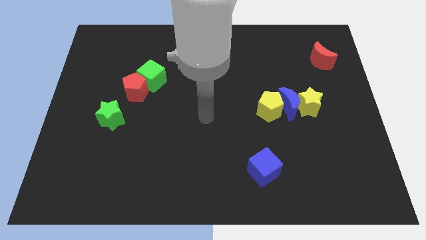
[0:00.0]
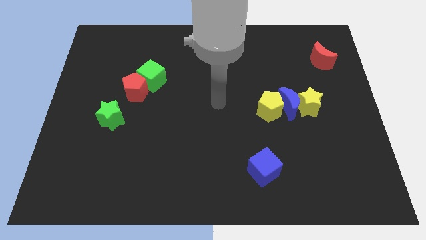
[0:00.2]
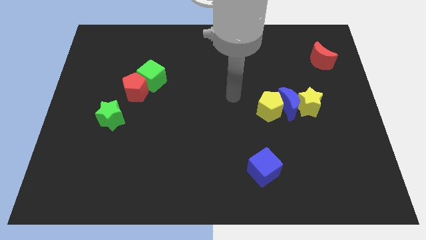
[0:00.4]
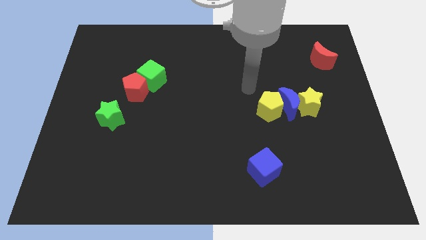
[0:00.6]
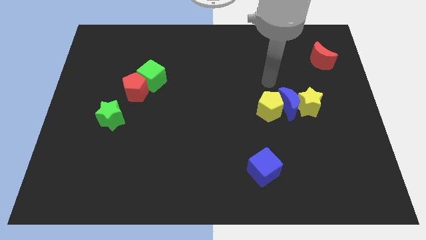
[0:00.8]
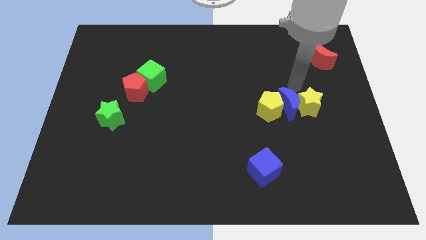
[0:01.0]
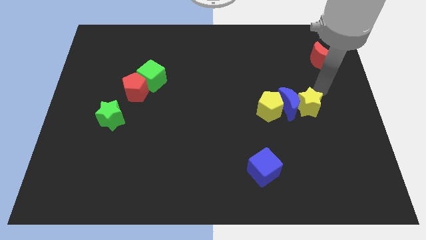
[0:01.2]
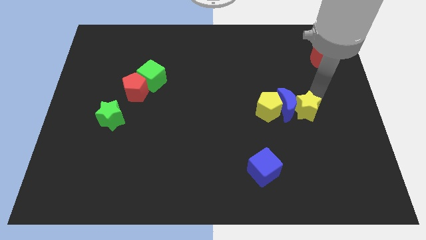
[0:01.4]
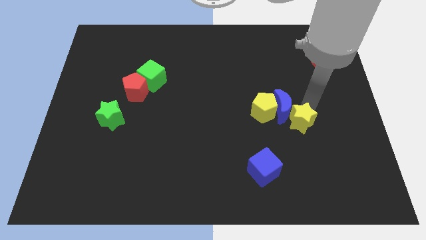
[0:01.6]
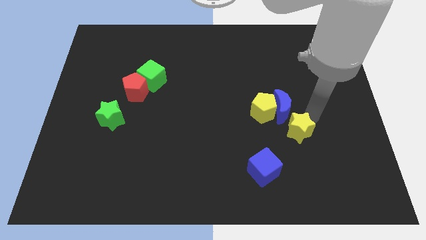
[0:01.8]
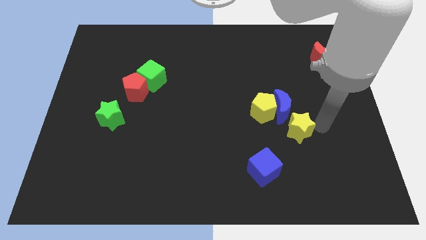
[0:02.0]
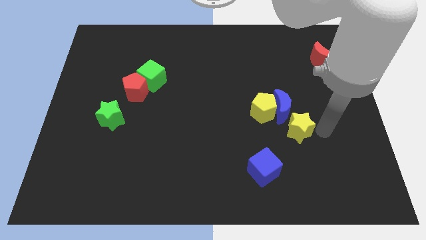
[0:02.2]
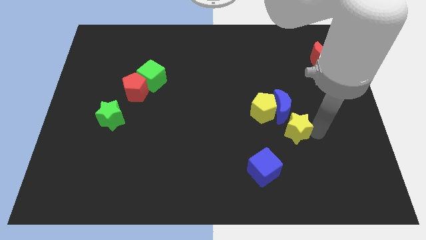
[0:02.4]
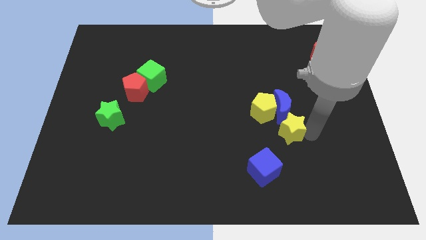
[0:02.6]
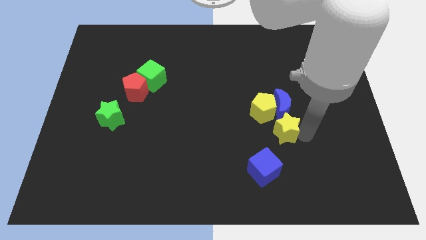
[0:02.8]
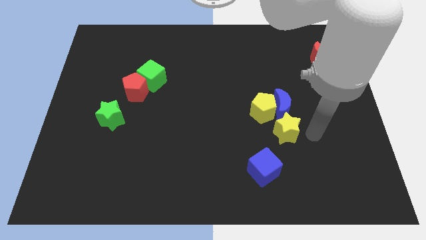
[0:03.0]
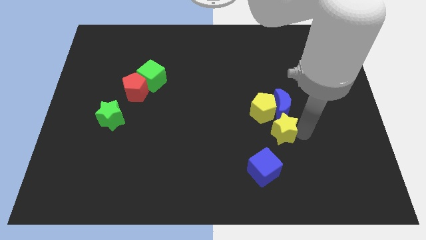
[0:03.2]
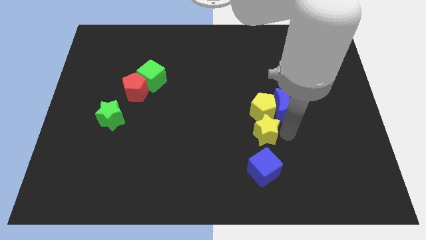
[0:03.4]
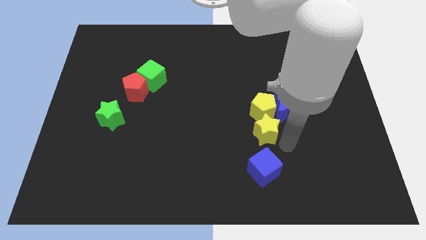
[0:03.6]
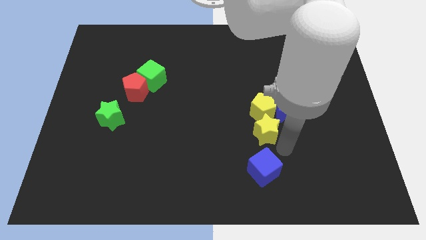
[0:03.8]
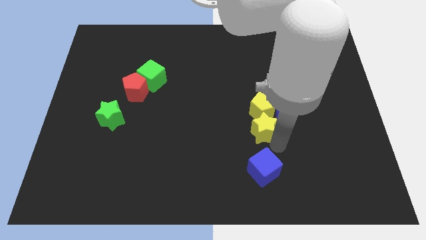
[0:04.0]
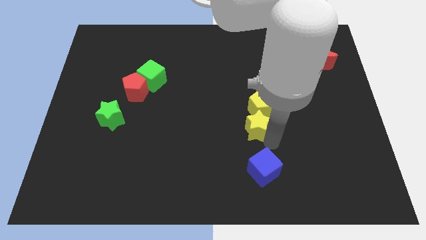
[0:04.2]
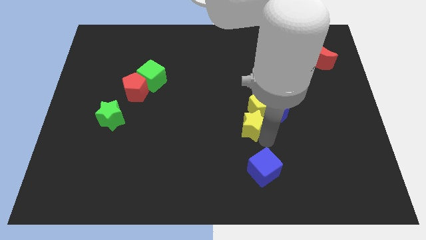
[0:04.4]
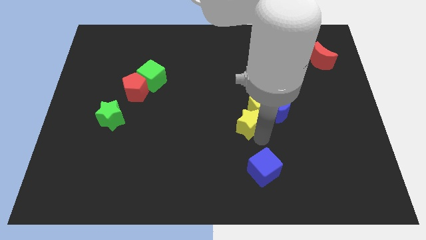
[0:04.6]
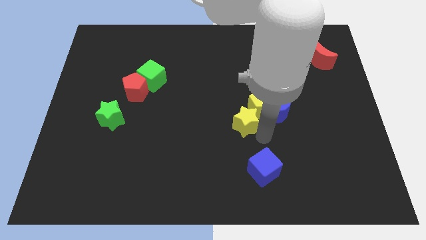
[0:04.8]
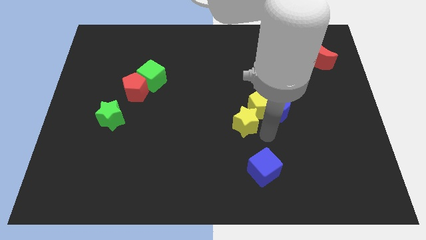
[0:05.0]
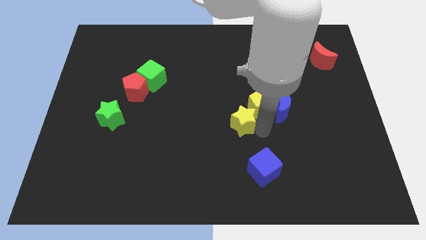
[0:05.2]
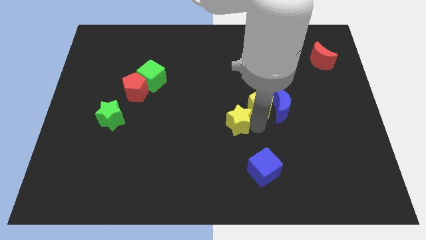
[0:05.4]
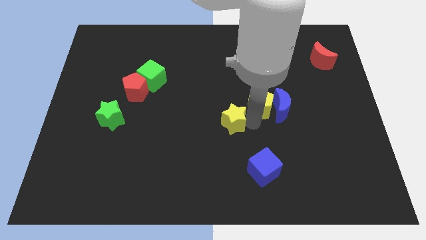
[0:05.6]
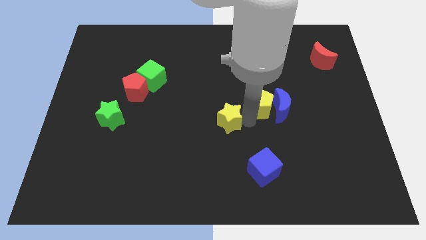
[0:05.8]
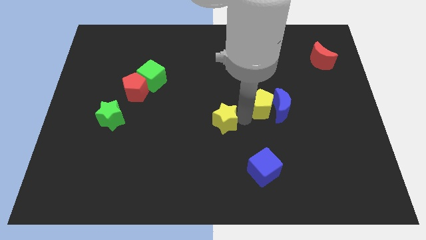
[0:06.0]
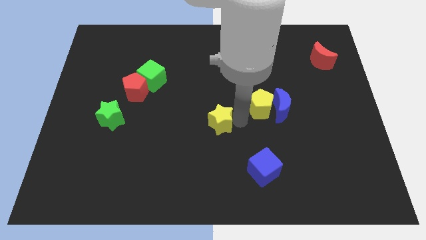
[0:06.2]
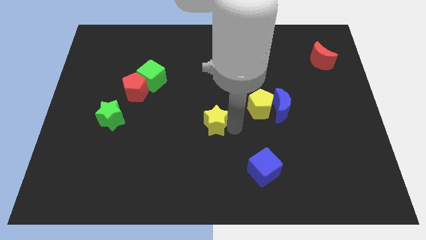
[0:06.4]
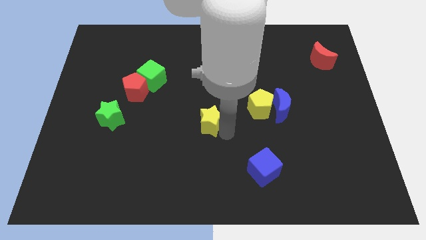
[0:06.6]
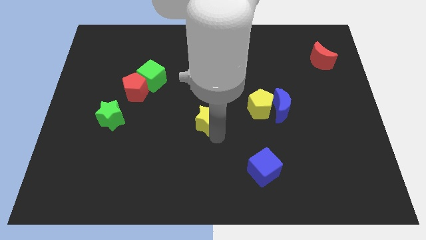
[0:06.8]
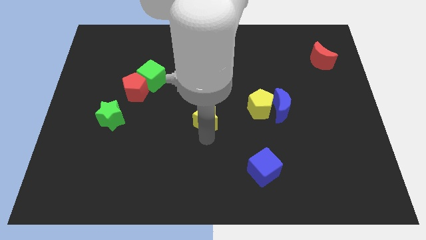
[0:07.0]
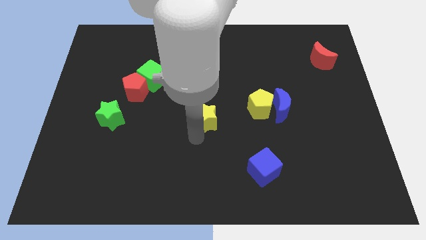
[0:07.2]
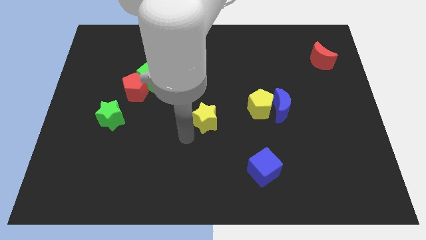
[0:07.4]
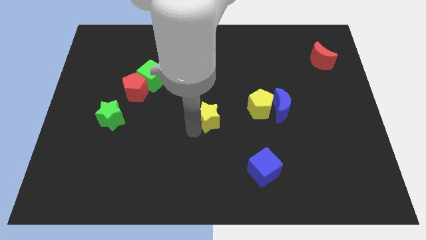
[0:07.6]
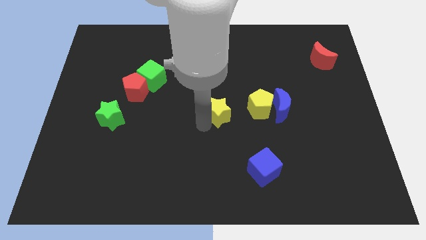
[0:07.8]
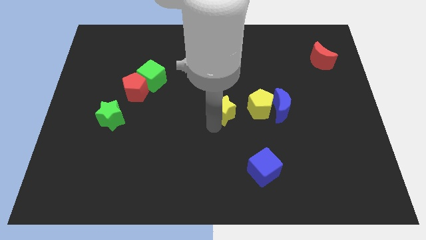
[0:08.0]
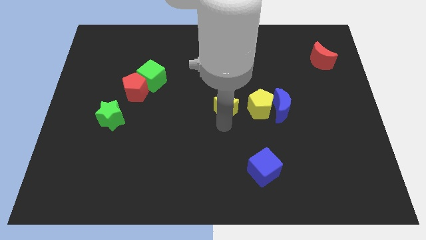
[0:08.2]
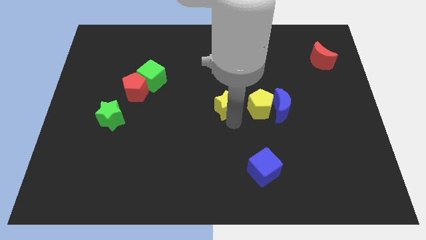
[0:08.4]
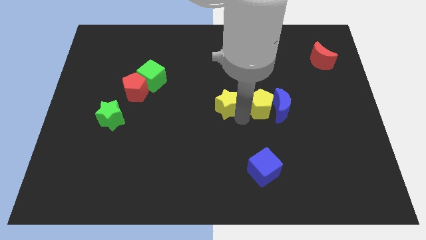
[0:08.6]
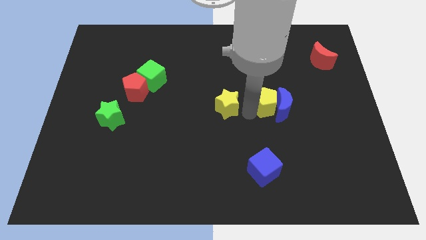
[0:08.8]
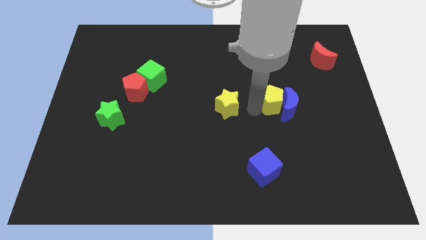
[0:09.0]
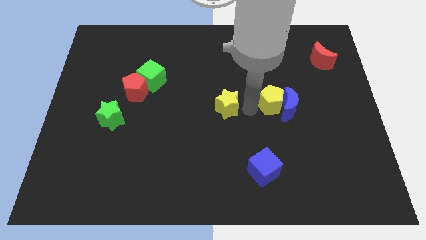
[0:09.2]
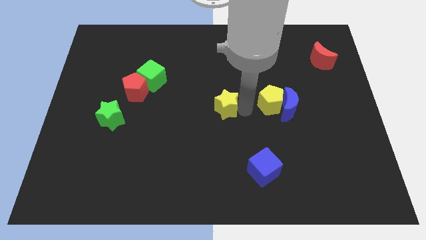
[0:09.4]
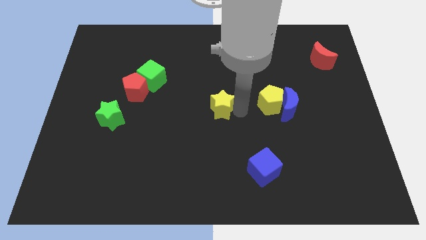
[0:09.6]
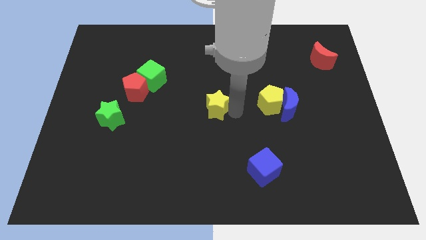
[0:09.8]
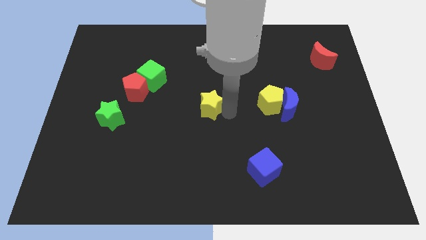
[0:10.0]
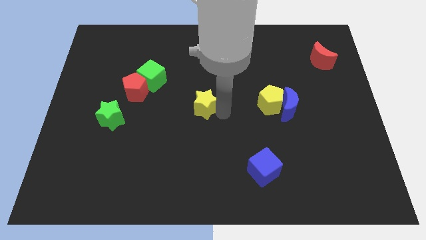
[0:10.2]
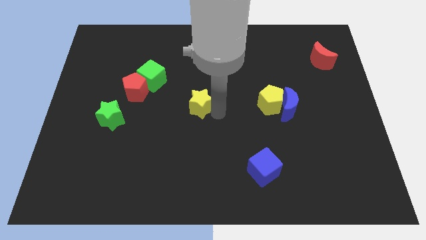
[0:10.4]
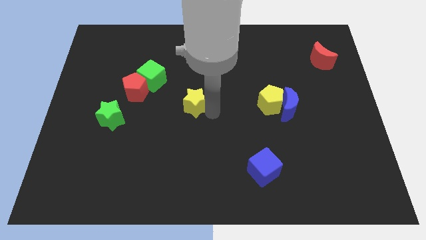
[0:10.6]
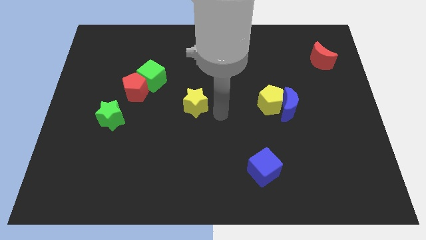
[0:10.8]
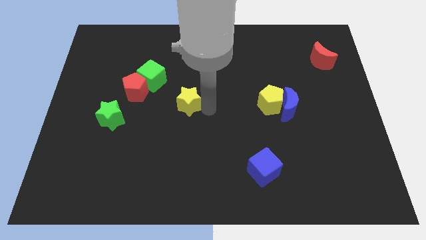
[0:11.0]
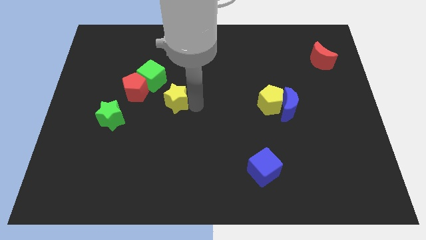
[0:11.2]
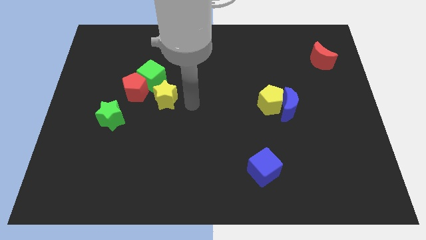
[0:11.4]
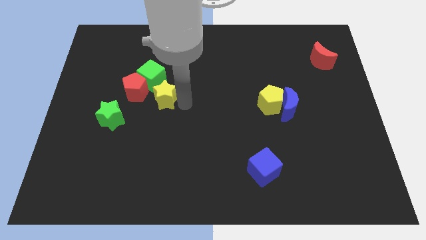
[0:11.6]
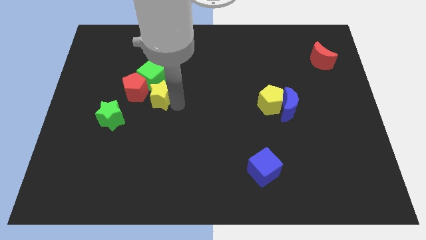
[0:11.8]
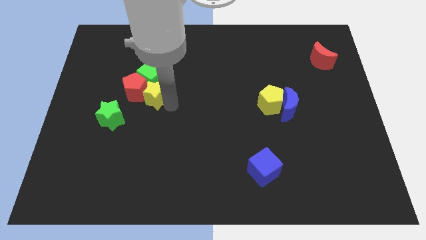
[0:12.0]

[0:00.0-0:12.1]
move the yellow star next to the red pentagon
